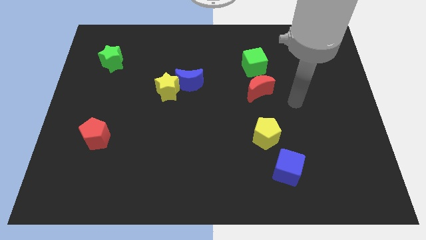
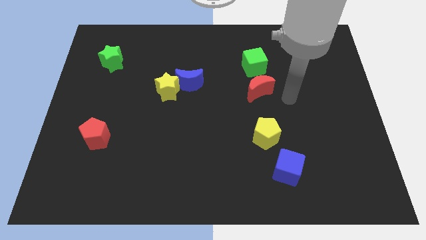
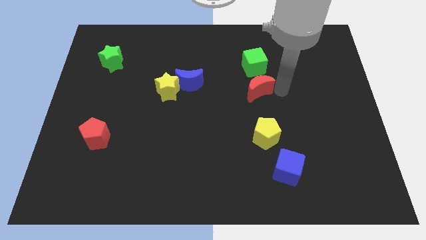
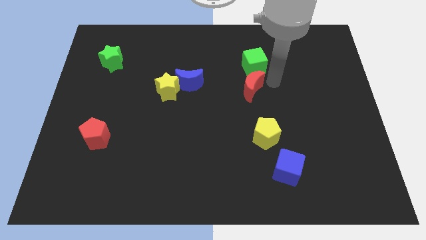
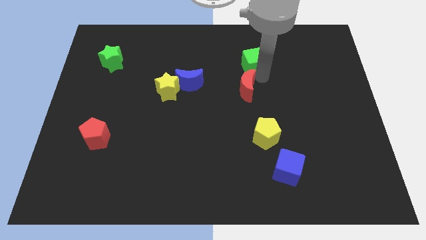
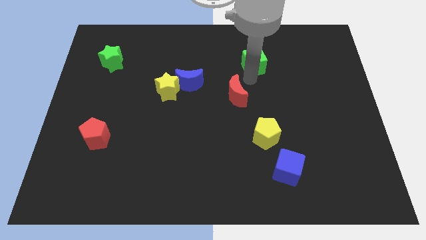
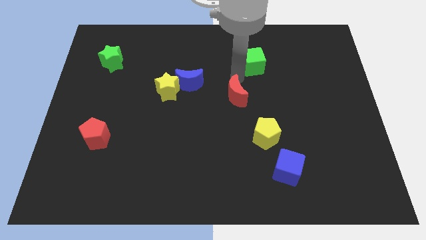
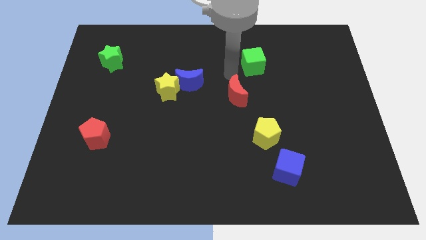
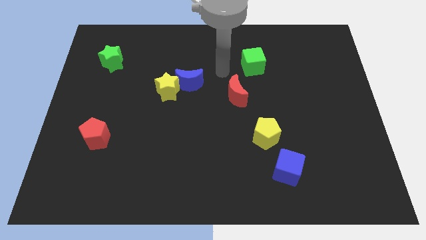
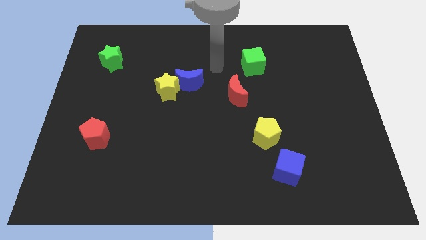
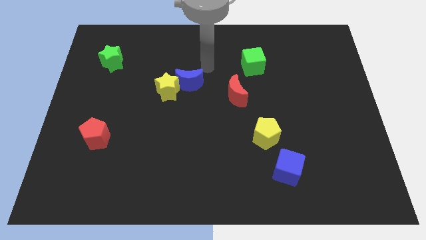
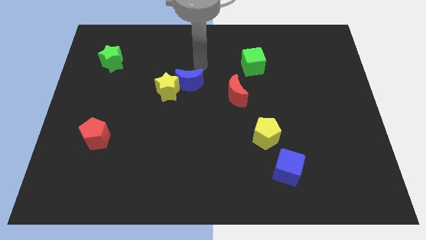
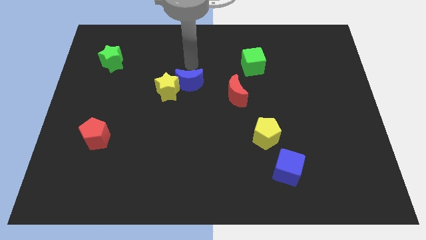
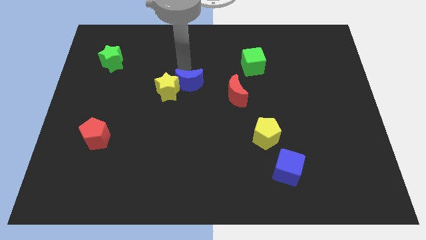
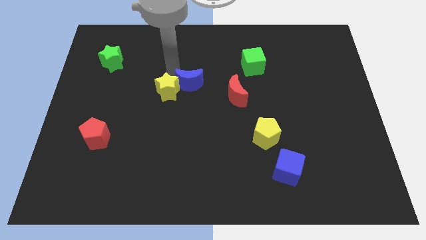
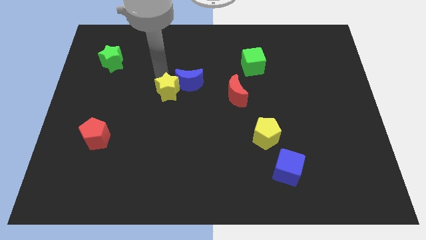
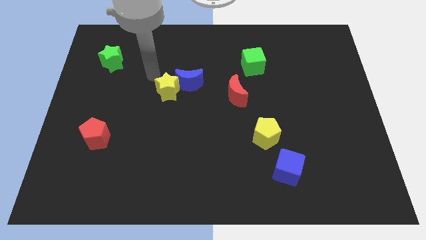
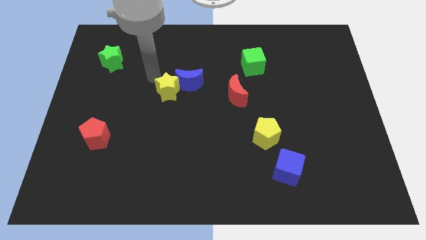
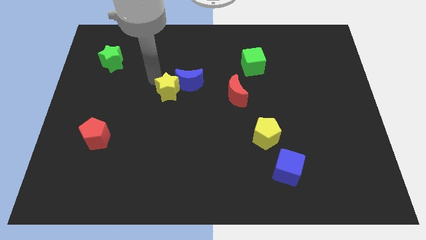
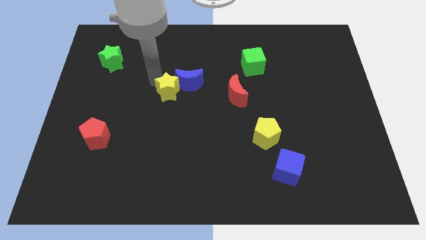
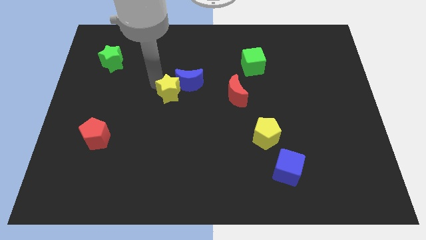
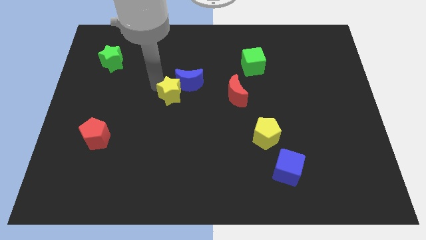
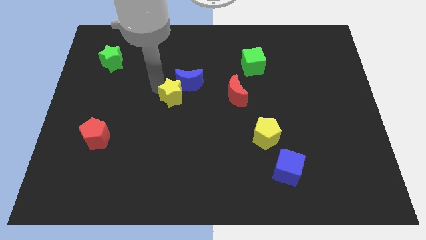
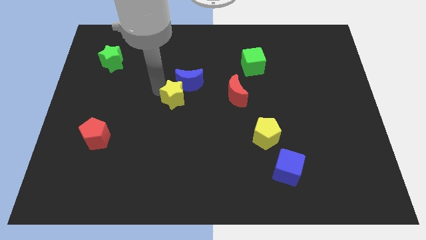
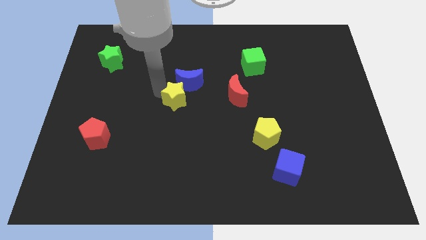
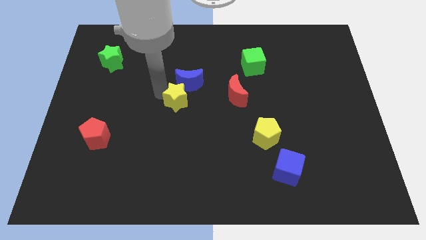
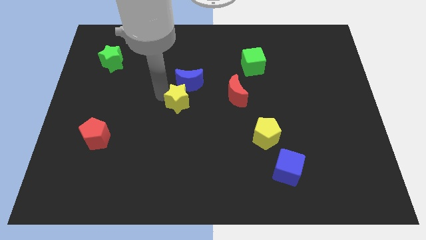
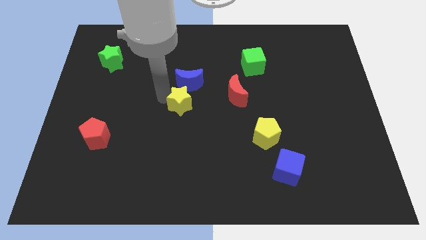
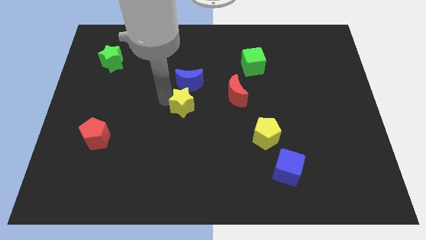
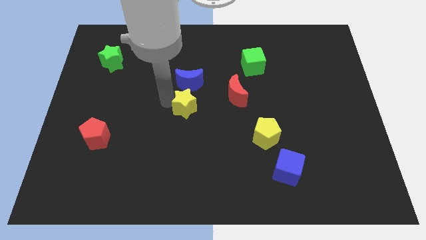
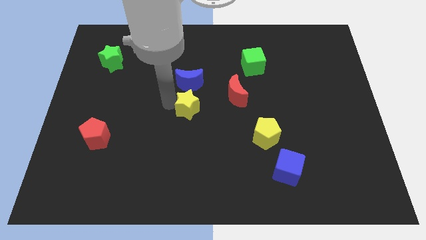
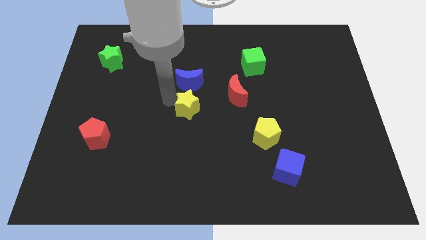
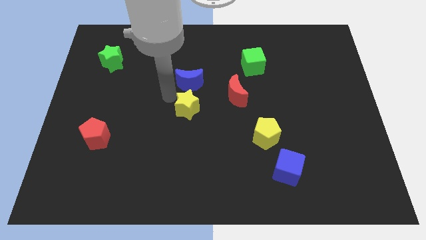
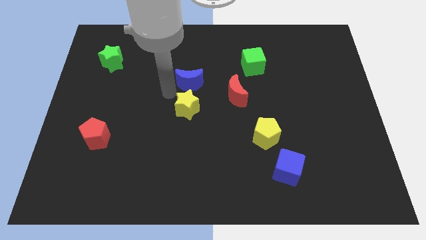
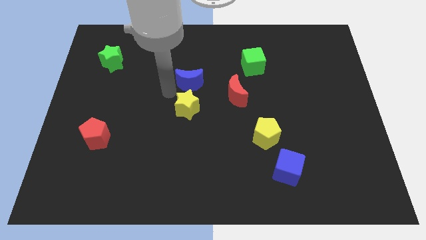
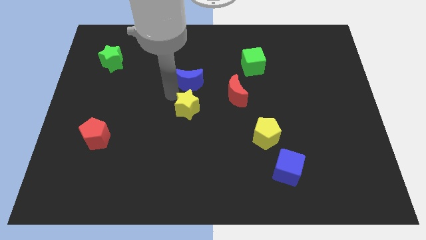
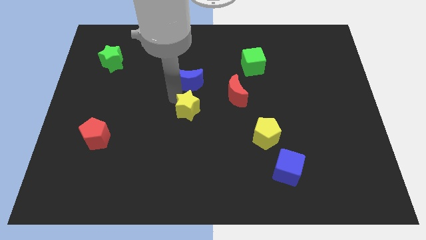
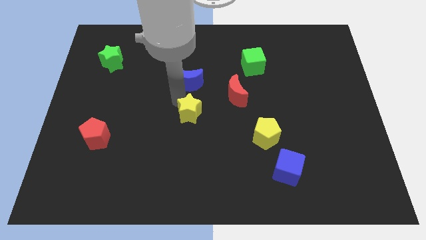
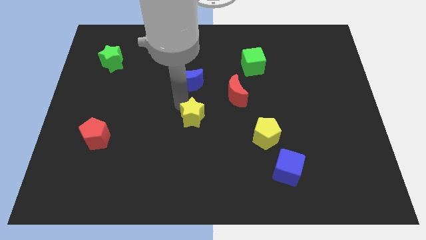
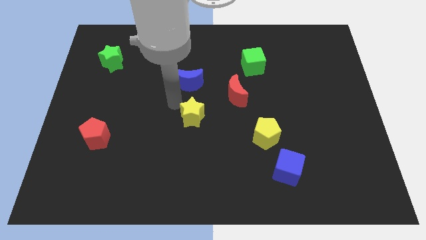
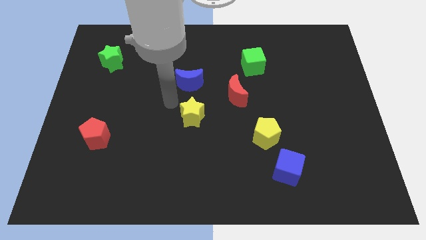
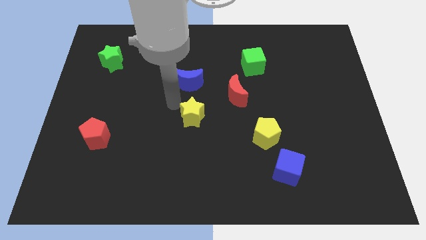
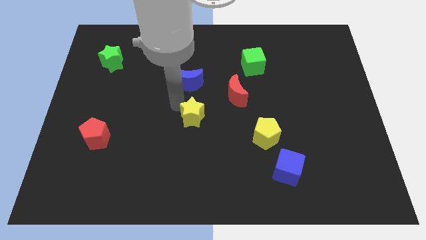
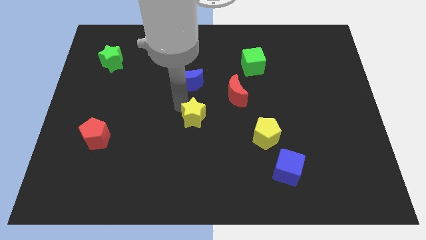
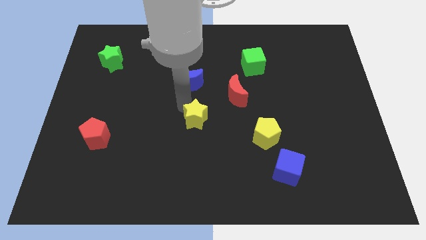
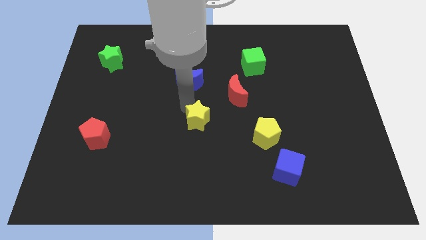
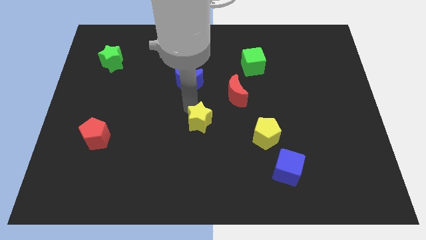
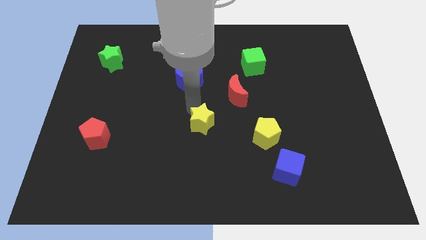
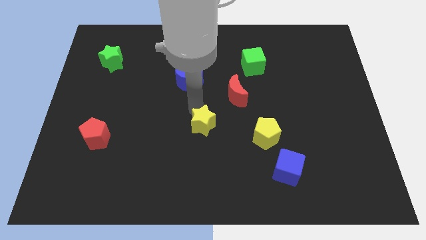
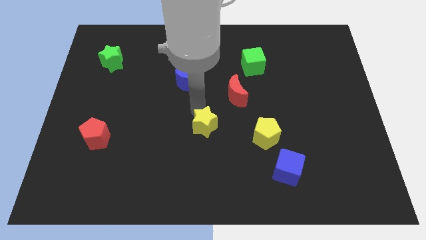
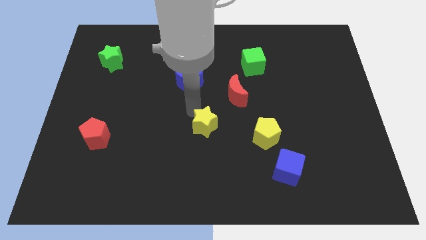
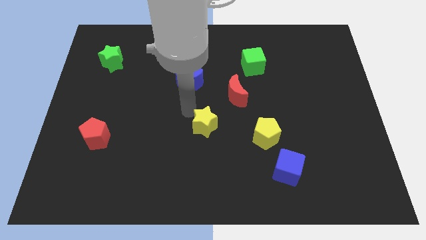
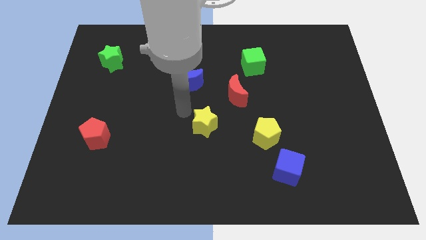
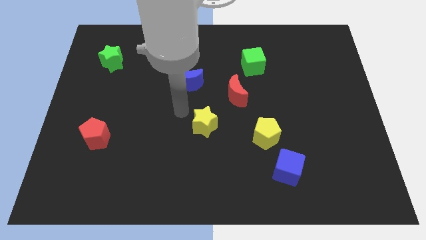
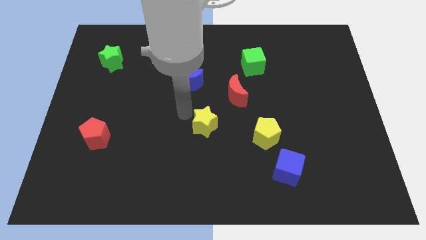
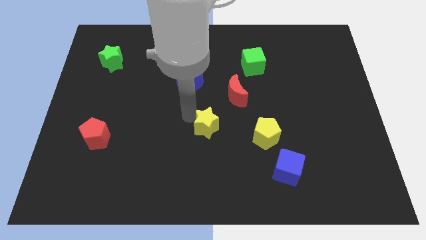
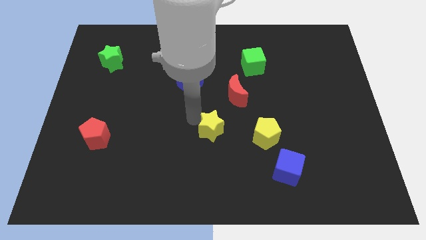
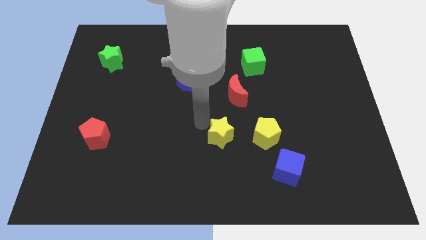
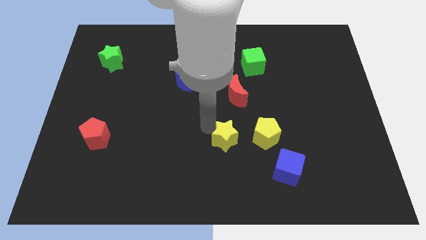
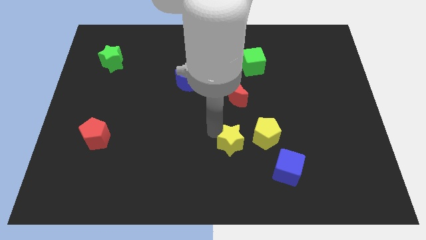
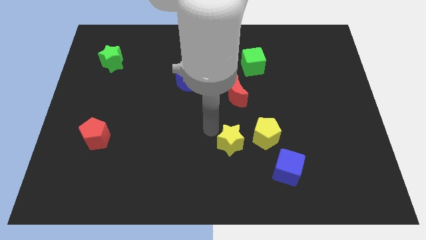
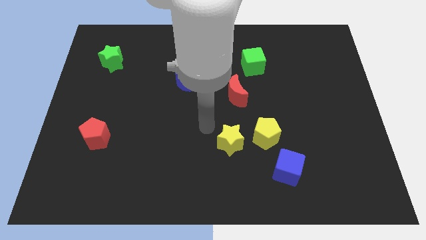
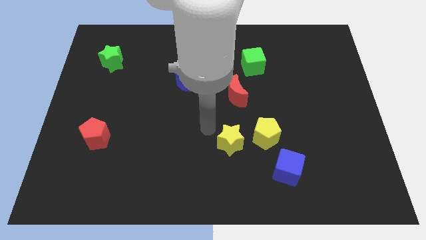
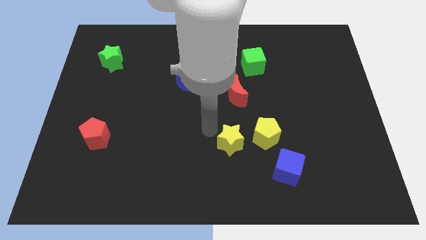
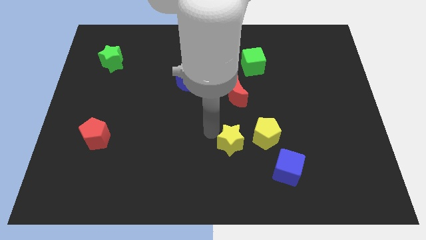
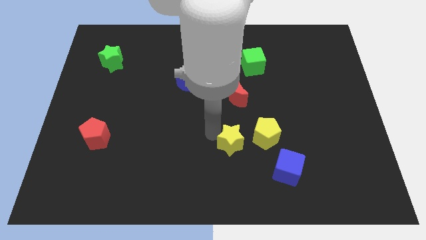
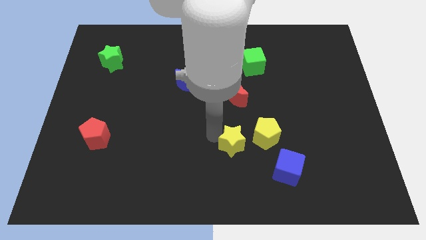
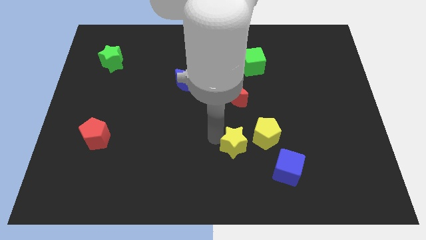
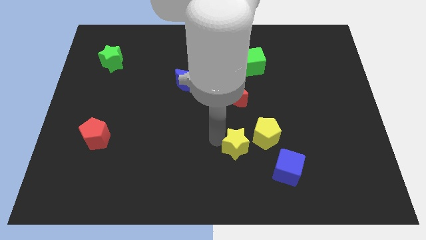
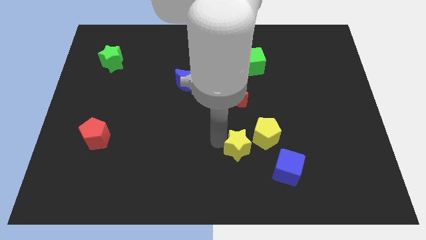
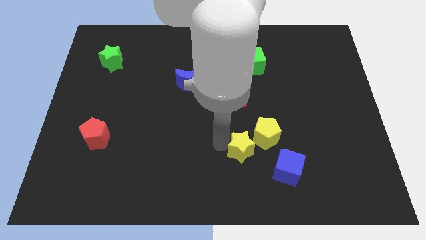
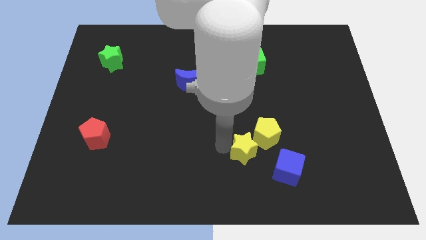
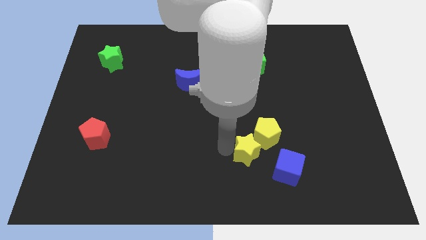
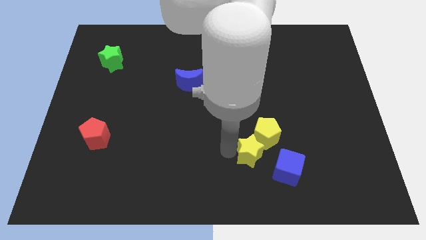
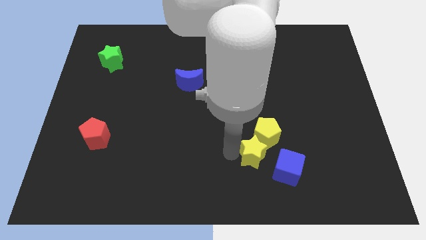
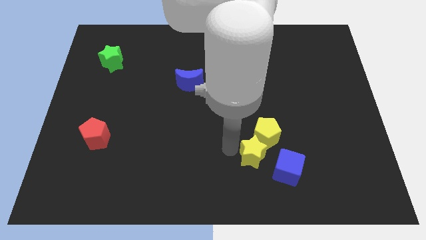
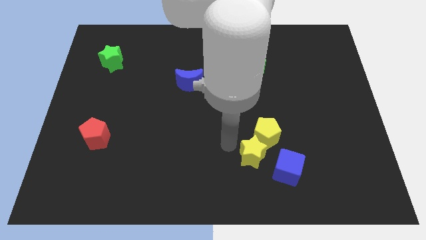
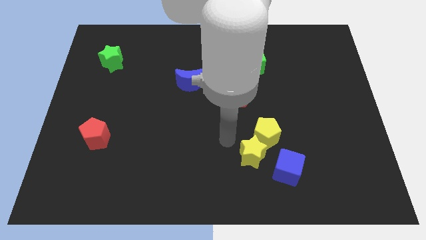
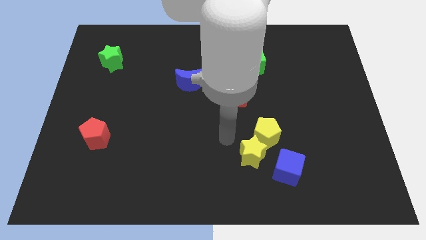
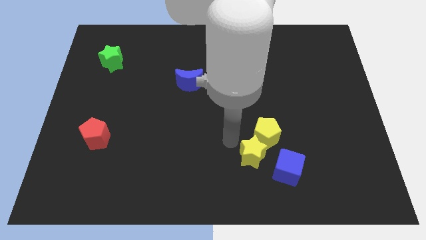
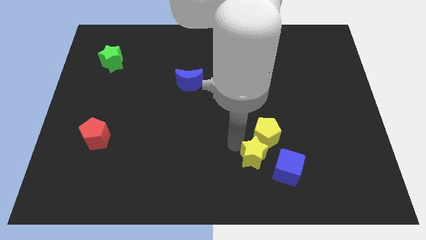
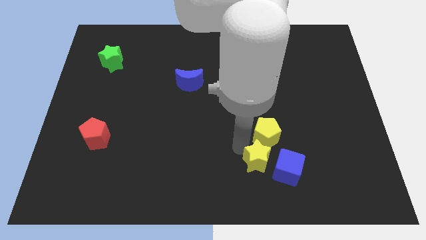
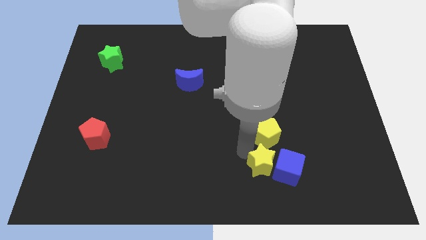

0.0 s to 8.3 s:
slide the yellow star close to the blue cube
